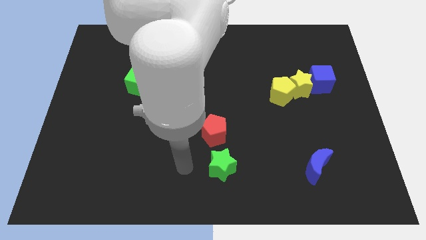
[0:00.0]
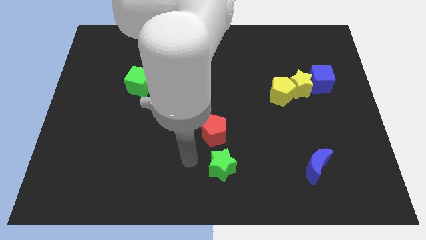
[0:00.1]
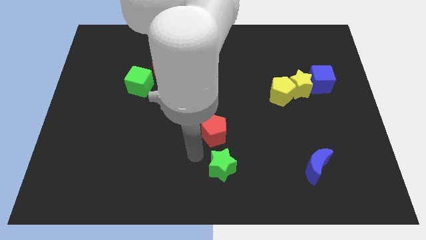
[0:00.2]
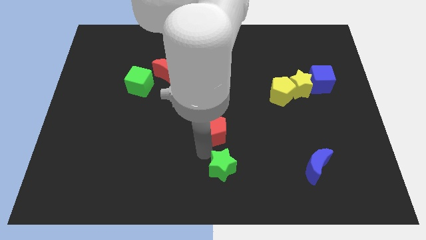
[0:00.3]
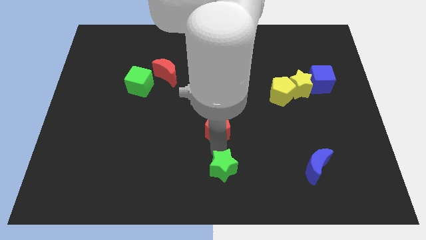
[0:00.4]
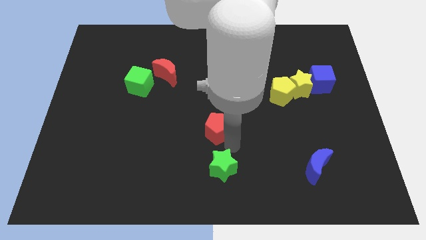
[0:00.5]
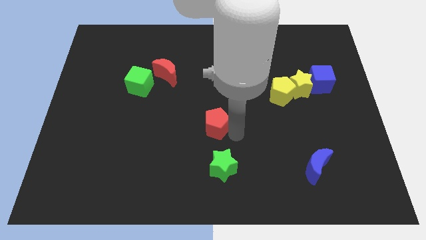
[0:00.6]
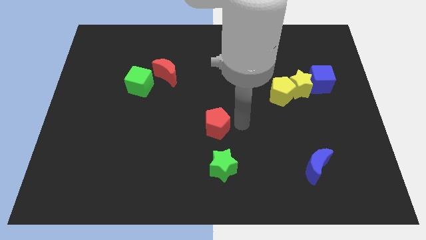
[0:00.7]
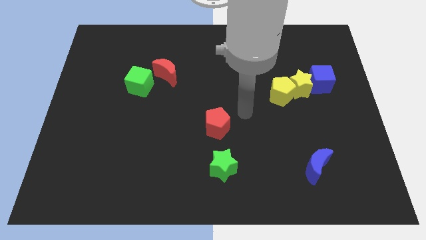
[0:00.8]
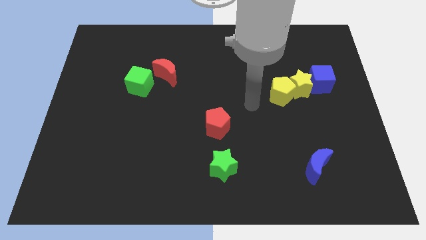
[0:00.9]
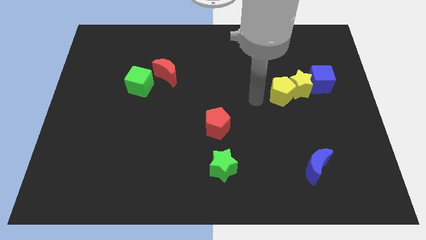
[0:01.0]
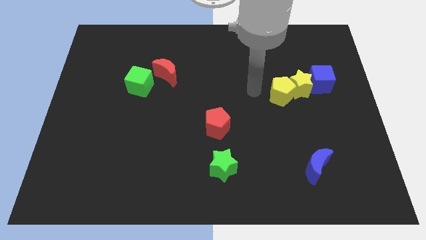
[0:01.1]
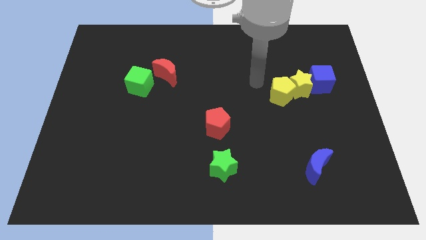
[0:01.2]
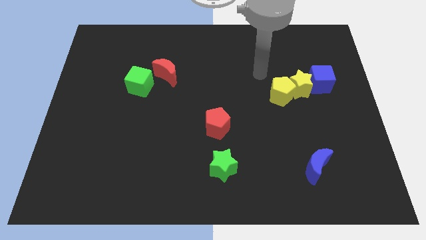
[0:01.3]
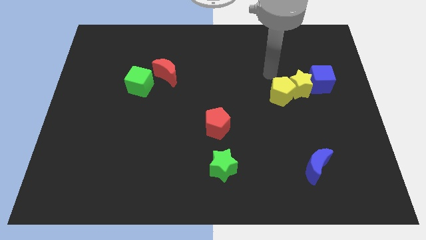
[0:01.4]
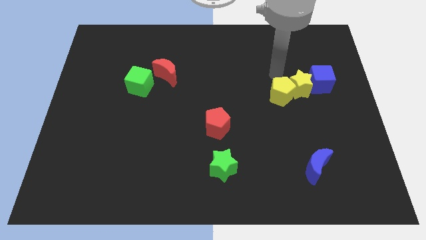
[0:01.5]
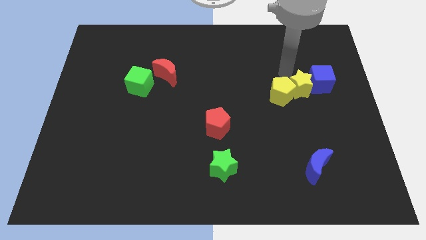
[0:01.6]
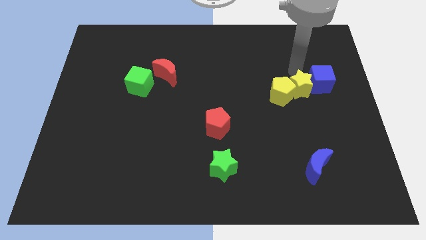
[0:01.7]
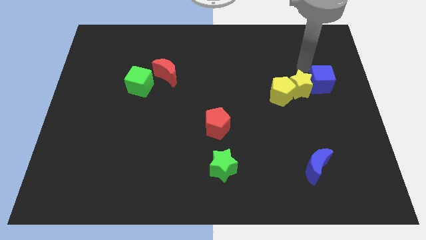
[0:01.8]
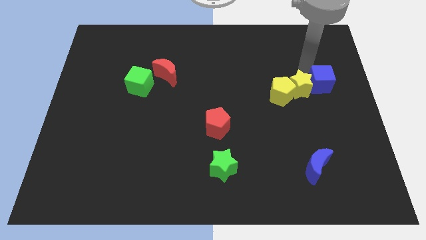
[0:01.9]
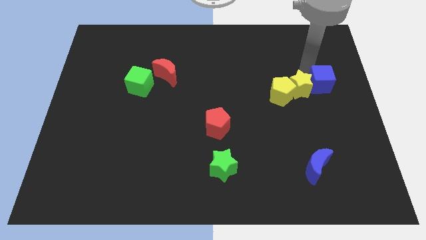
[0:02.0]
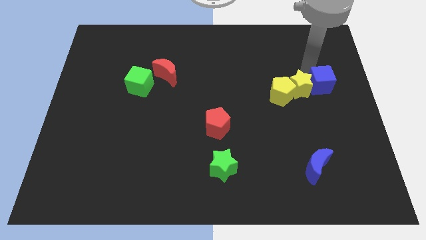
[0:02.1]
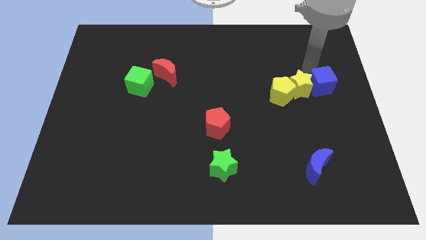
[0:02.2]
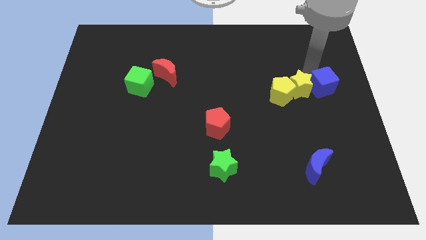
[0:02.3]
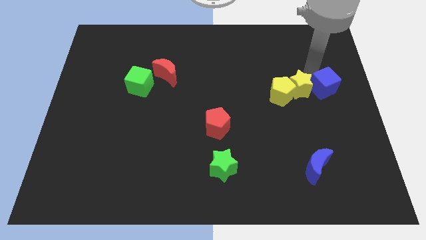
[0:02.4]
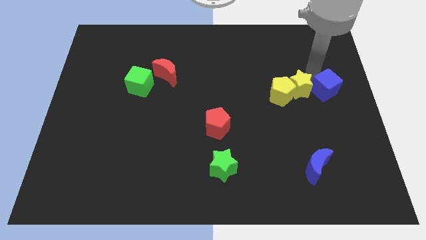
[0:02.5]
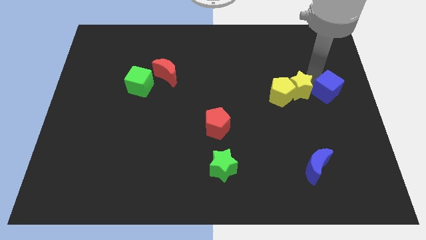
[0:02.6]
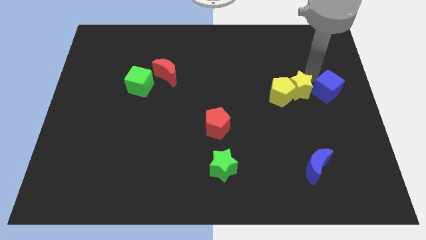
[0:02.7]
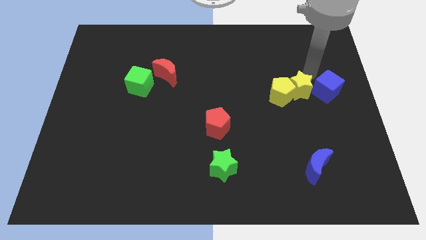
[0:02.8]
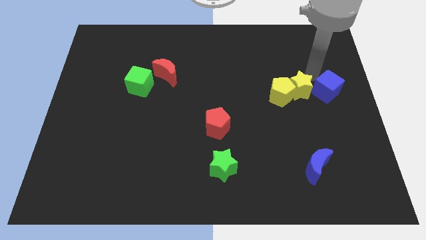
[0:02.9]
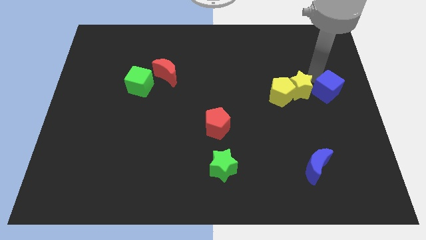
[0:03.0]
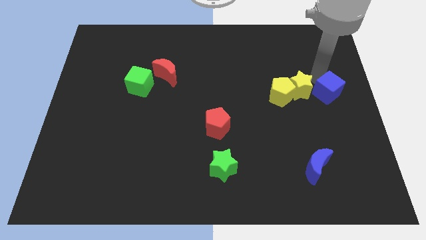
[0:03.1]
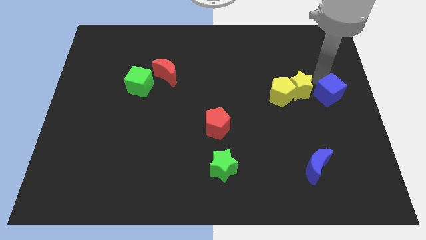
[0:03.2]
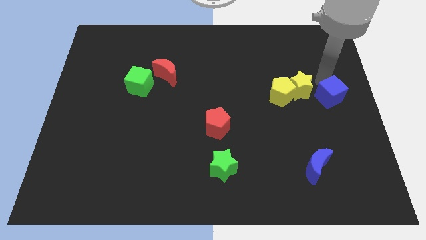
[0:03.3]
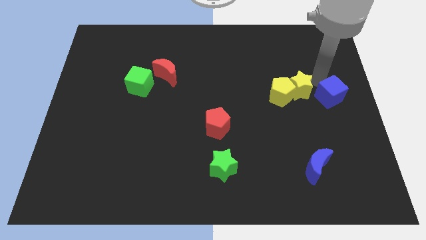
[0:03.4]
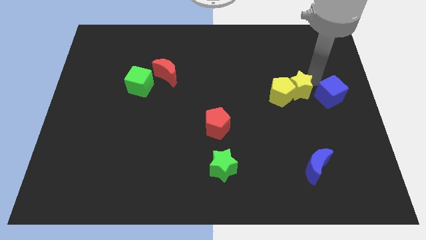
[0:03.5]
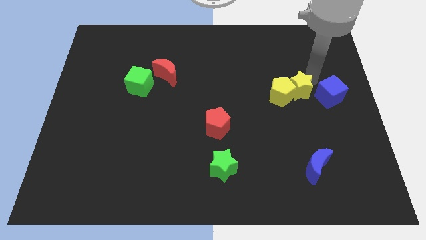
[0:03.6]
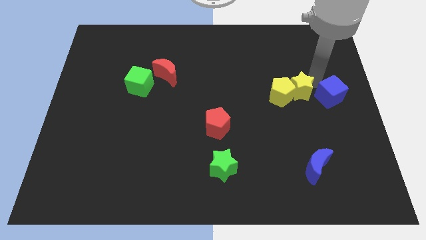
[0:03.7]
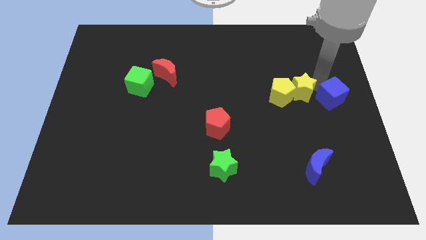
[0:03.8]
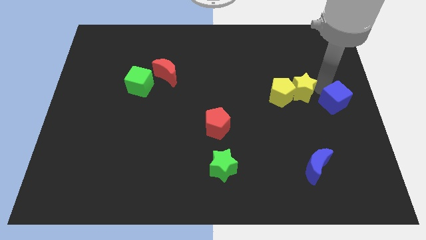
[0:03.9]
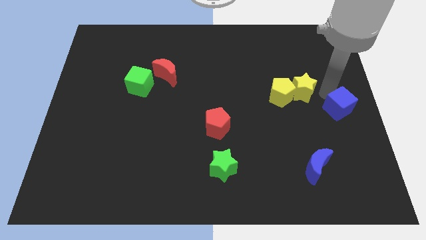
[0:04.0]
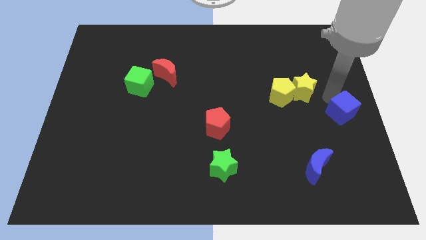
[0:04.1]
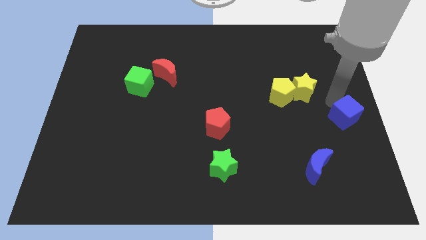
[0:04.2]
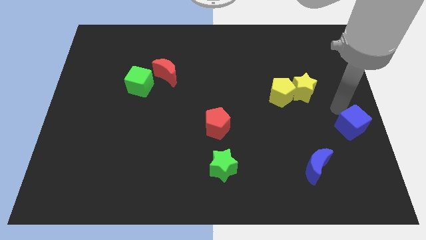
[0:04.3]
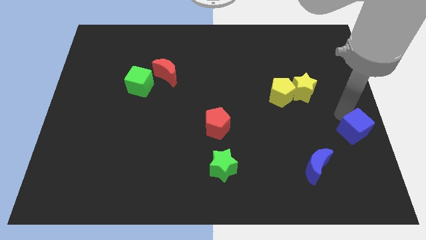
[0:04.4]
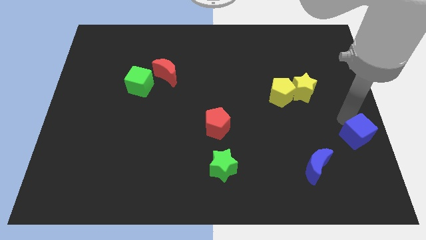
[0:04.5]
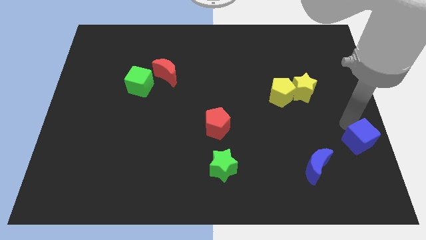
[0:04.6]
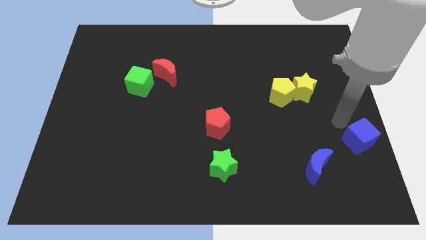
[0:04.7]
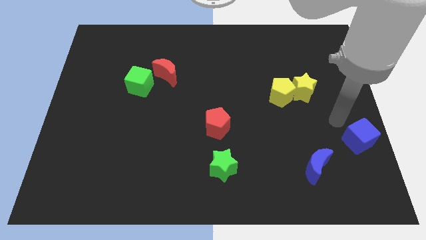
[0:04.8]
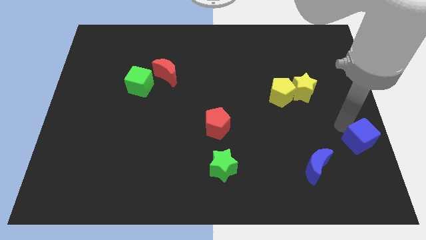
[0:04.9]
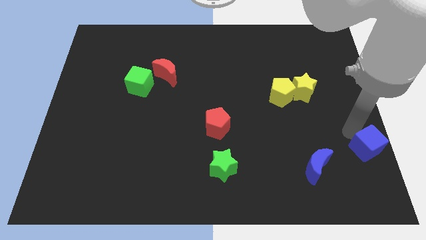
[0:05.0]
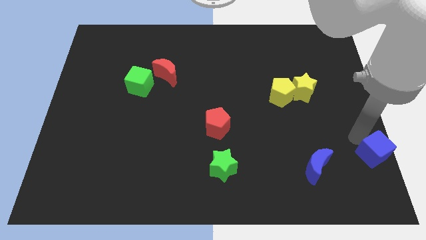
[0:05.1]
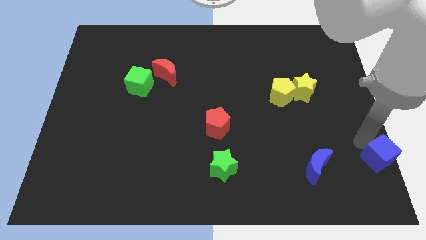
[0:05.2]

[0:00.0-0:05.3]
put the blue cube to the bottom right of the board
